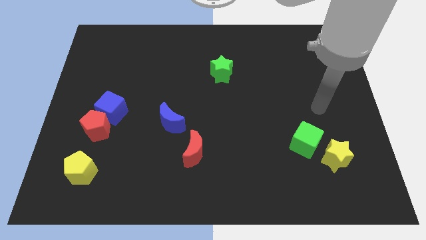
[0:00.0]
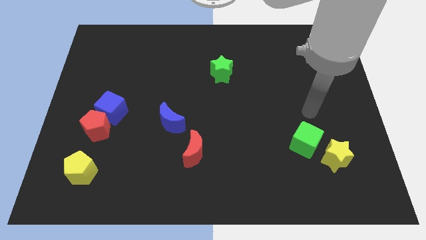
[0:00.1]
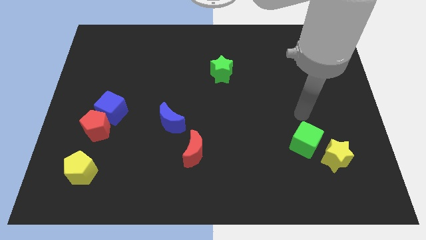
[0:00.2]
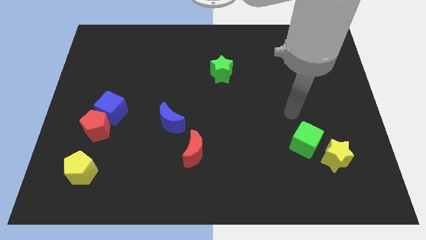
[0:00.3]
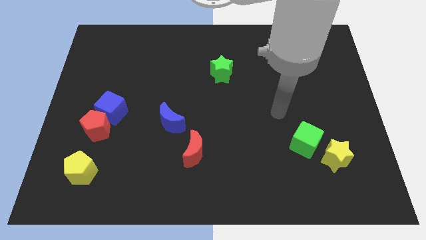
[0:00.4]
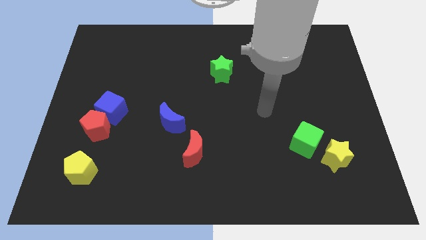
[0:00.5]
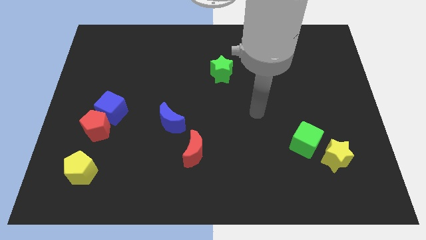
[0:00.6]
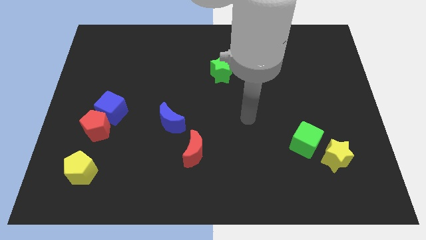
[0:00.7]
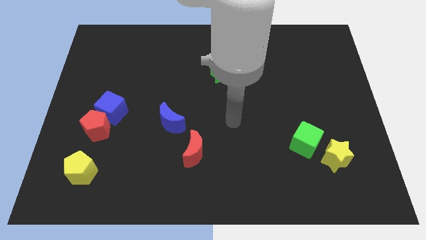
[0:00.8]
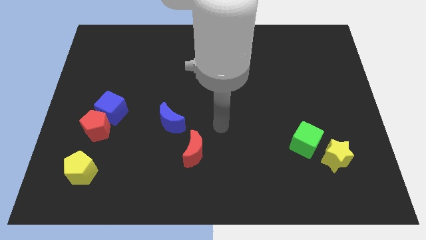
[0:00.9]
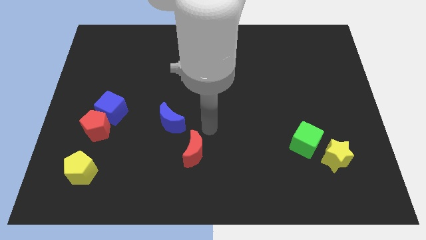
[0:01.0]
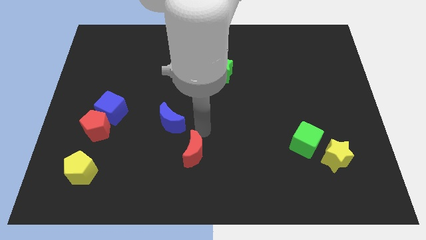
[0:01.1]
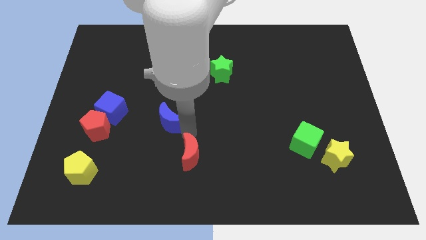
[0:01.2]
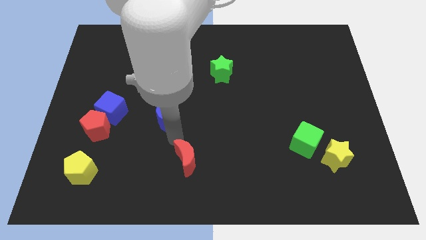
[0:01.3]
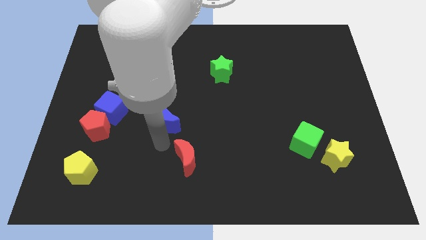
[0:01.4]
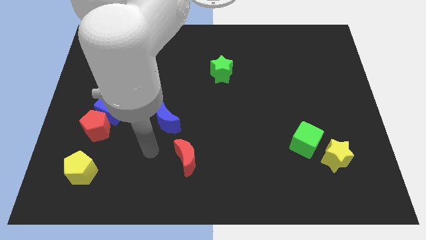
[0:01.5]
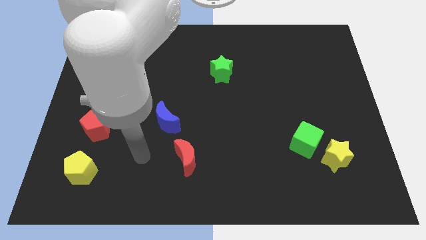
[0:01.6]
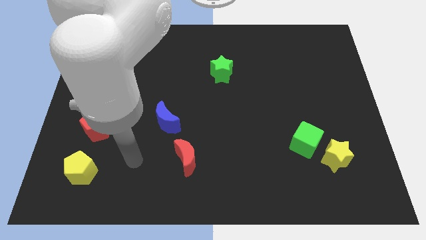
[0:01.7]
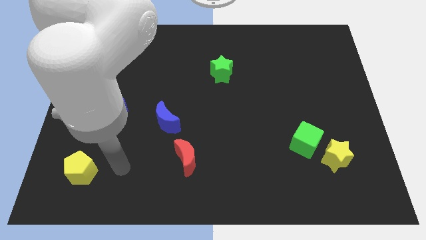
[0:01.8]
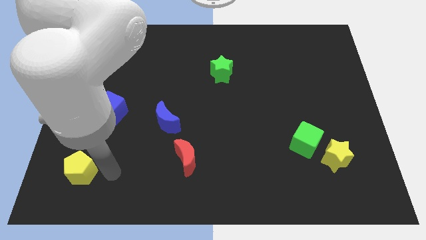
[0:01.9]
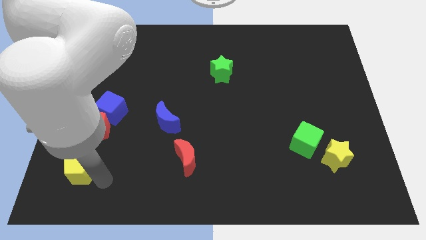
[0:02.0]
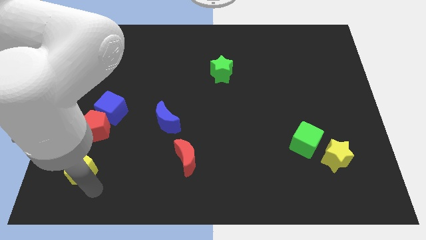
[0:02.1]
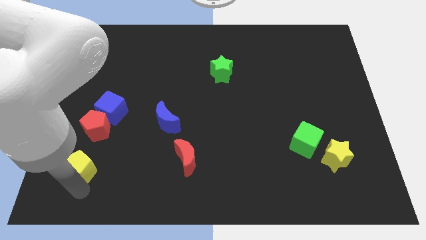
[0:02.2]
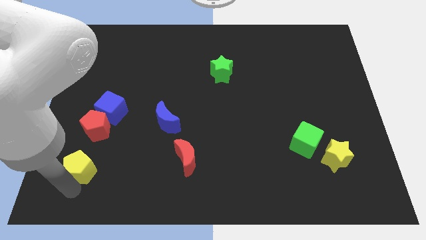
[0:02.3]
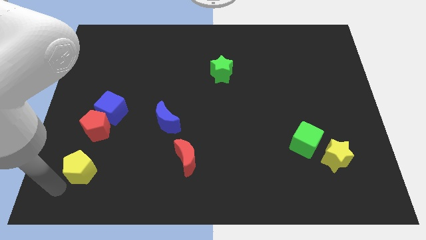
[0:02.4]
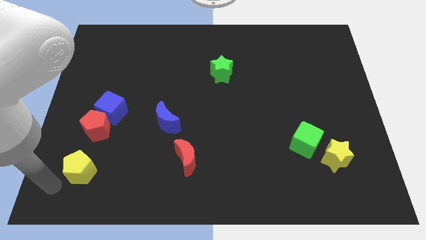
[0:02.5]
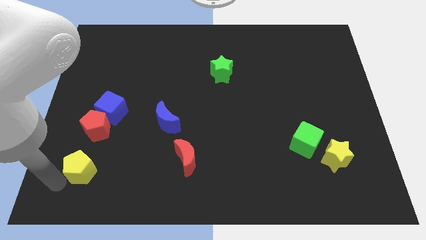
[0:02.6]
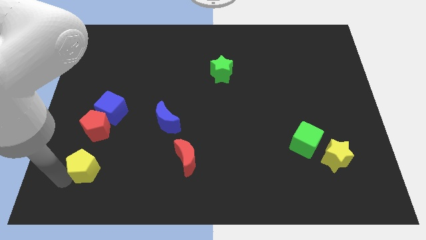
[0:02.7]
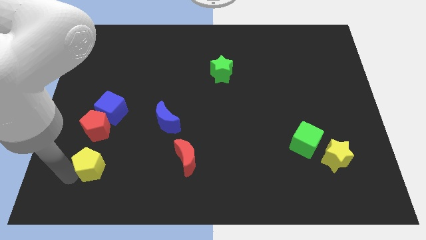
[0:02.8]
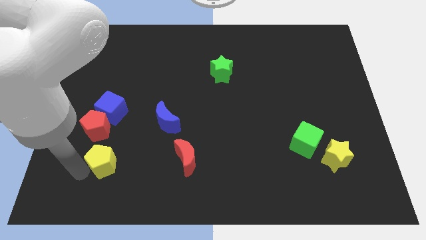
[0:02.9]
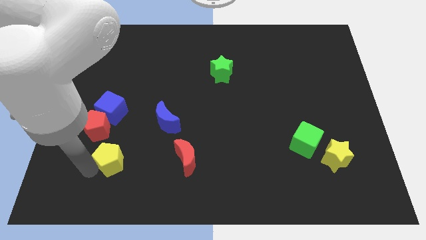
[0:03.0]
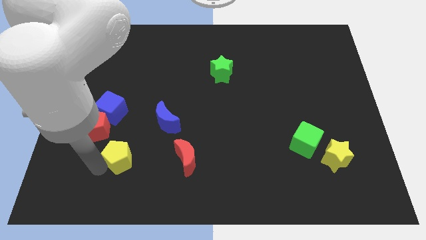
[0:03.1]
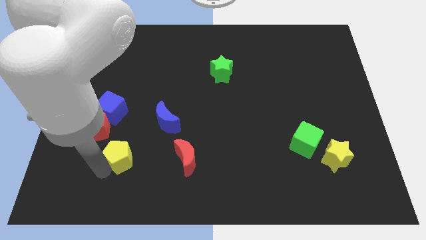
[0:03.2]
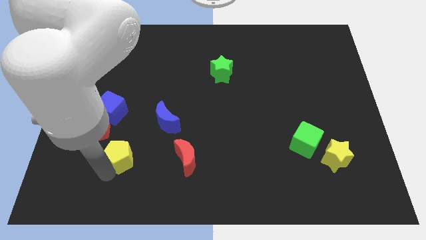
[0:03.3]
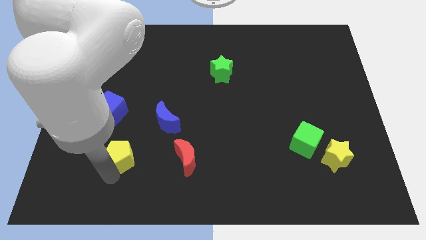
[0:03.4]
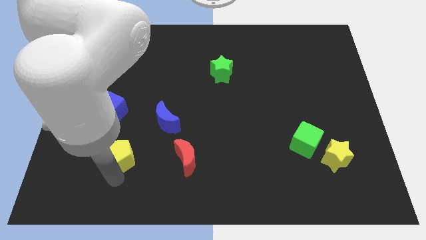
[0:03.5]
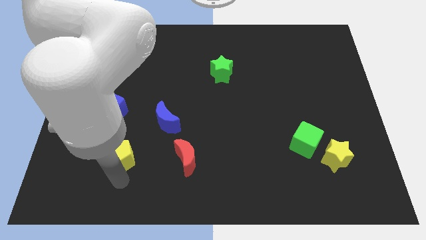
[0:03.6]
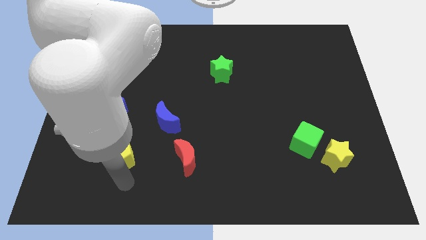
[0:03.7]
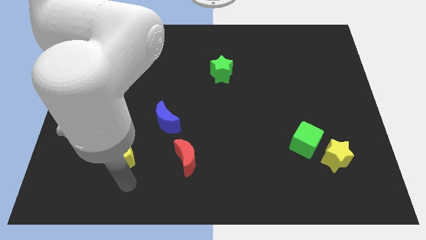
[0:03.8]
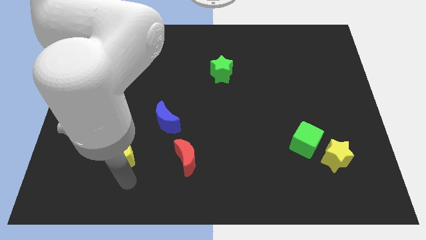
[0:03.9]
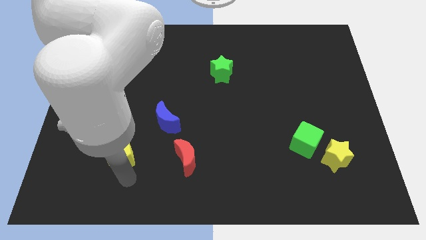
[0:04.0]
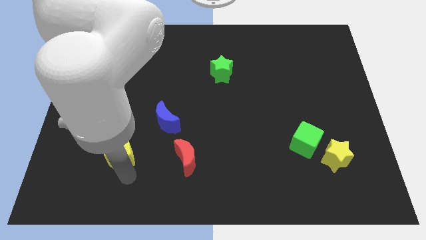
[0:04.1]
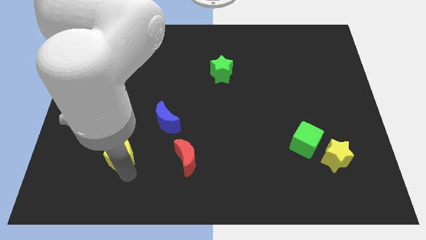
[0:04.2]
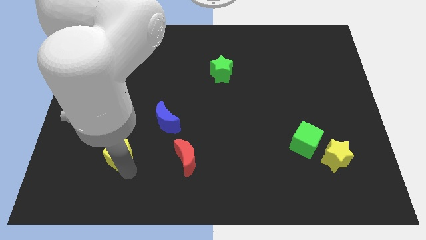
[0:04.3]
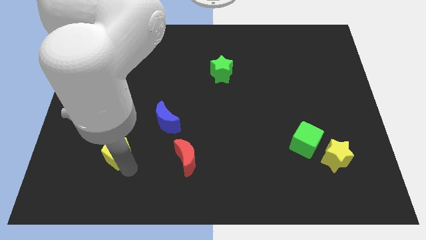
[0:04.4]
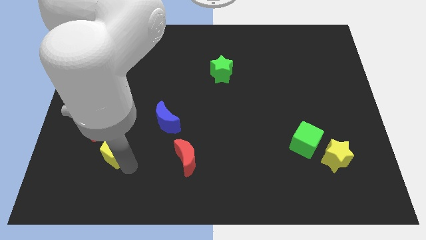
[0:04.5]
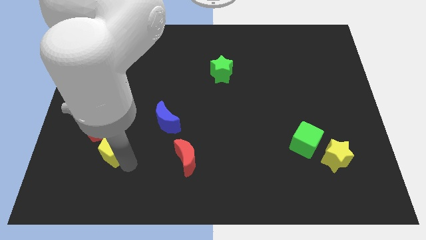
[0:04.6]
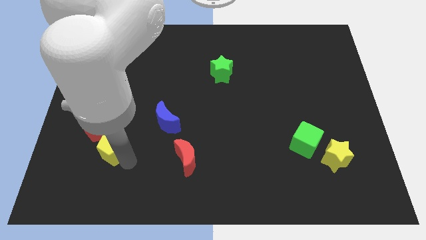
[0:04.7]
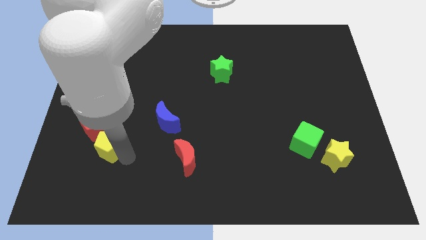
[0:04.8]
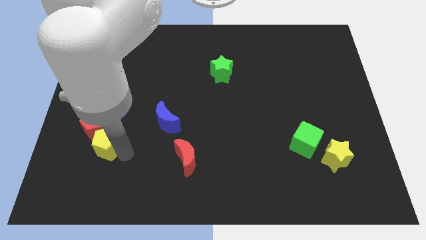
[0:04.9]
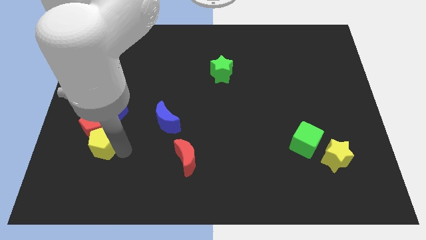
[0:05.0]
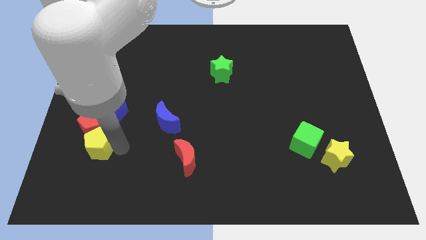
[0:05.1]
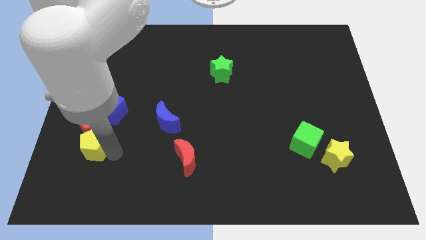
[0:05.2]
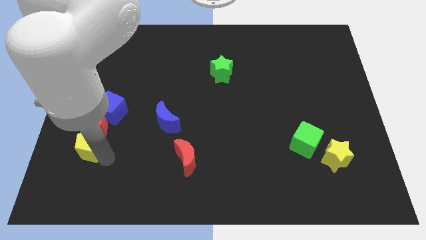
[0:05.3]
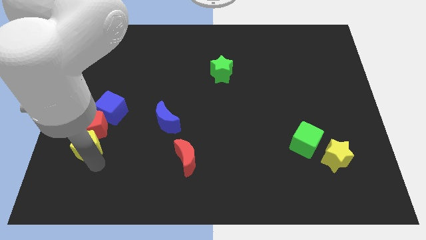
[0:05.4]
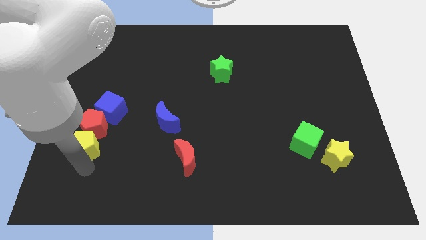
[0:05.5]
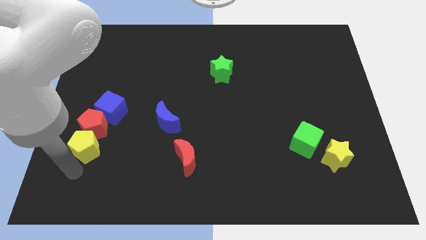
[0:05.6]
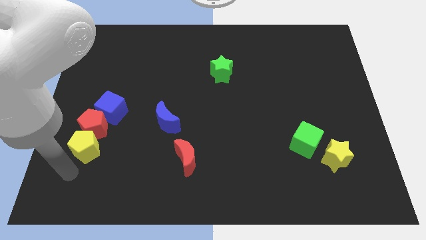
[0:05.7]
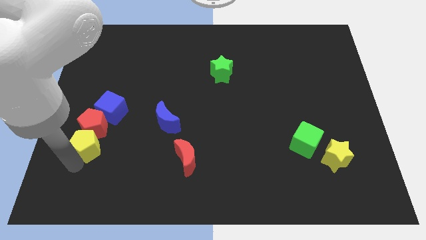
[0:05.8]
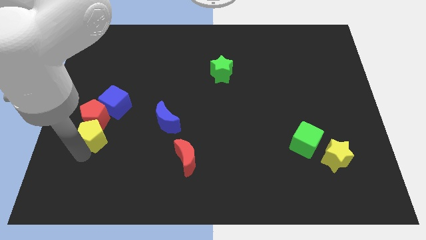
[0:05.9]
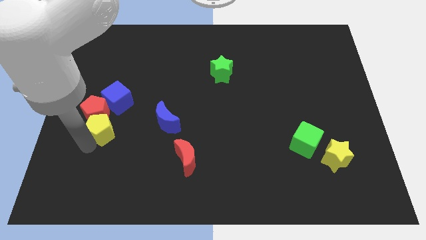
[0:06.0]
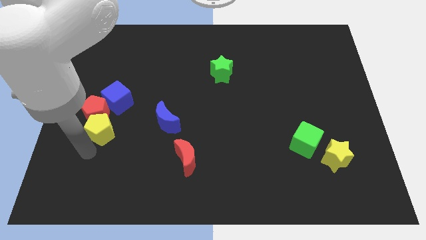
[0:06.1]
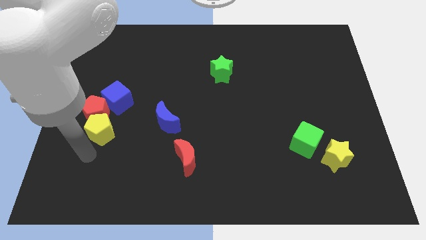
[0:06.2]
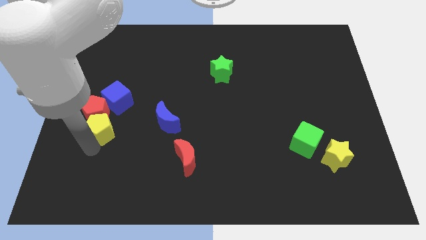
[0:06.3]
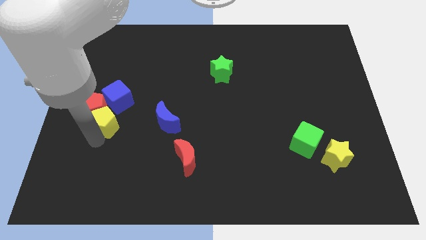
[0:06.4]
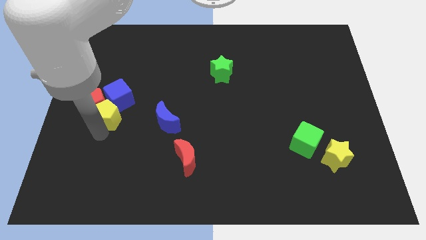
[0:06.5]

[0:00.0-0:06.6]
slide the yellow pentagon towards the blue cube

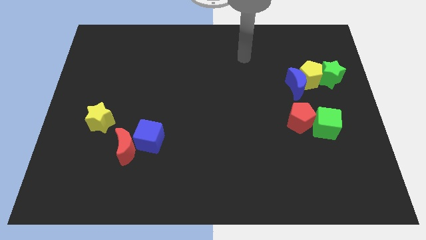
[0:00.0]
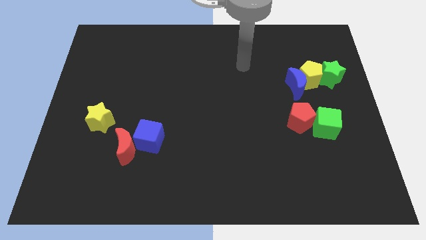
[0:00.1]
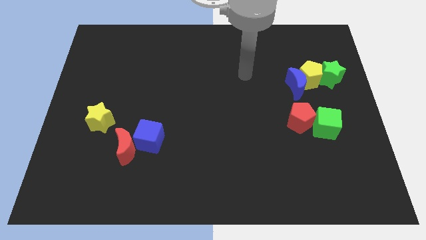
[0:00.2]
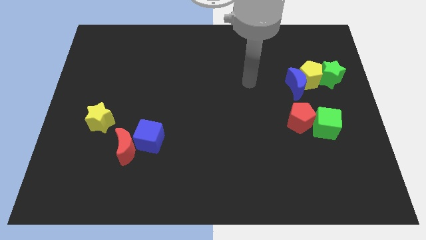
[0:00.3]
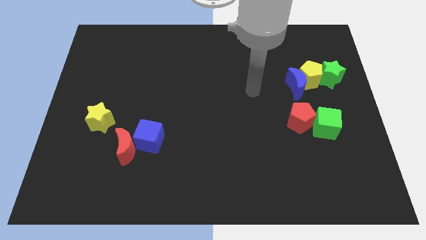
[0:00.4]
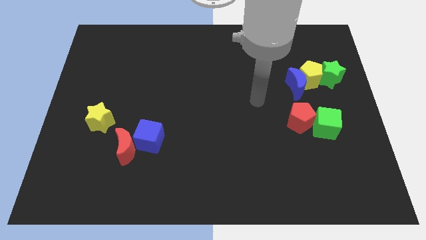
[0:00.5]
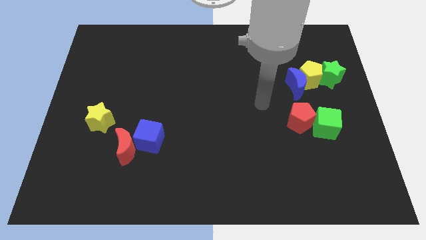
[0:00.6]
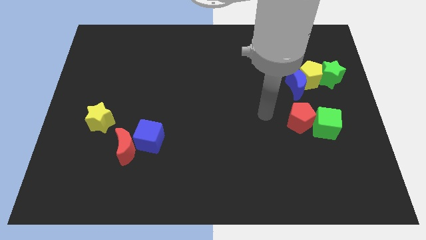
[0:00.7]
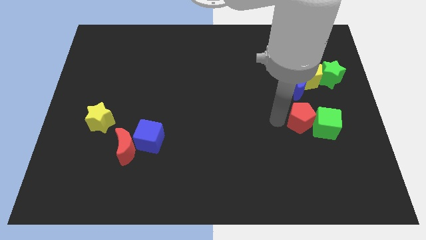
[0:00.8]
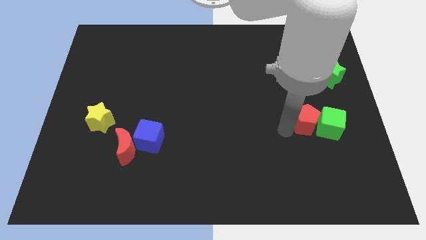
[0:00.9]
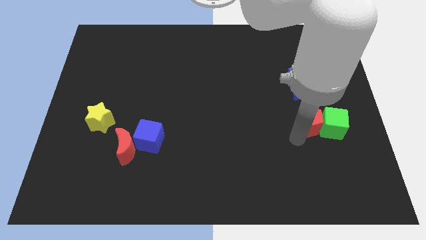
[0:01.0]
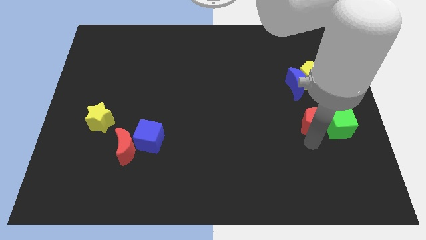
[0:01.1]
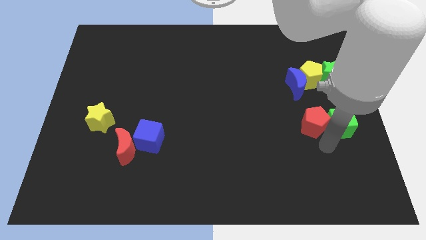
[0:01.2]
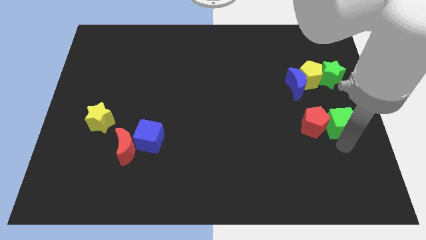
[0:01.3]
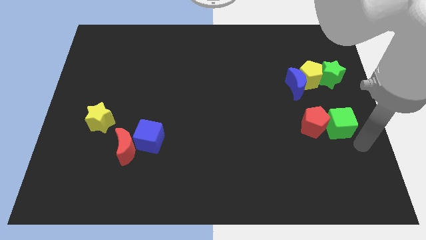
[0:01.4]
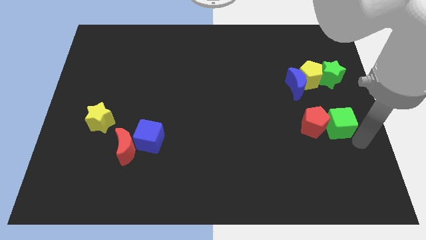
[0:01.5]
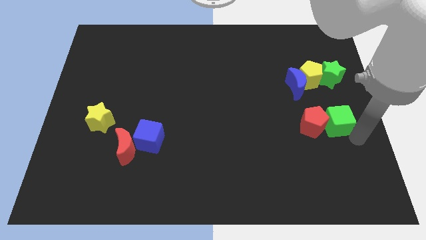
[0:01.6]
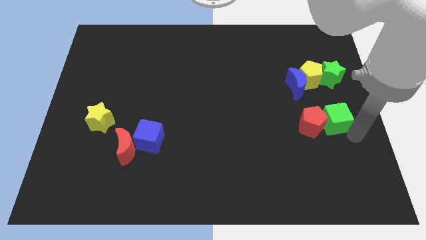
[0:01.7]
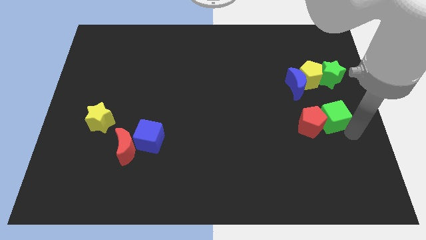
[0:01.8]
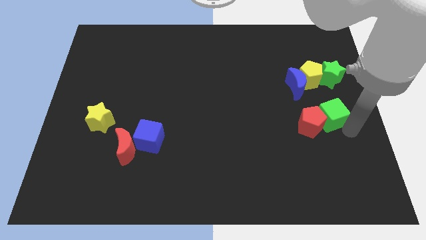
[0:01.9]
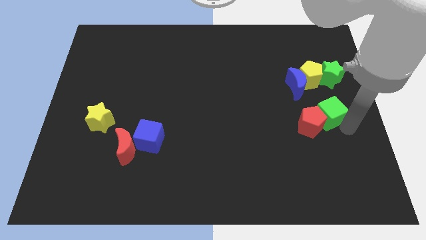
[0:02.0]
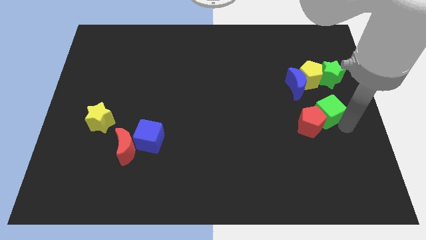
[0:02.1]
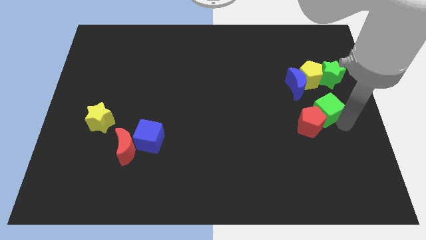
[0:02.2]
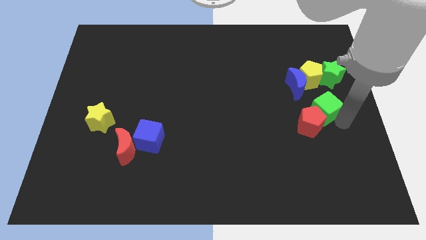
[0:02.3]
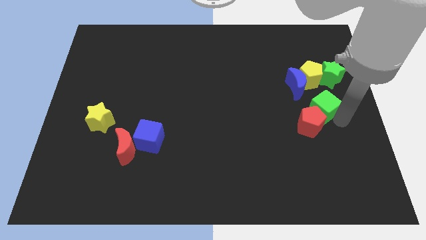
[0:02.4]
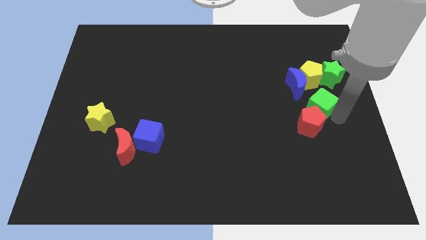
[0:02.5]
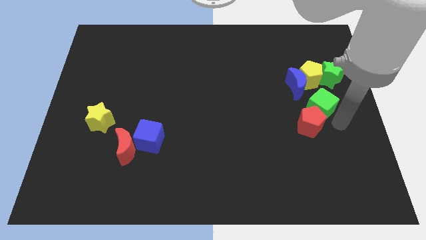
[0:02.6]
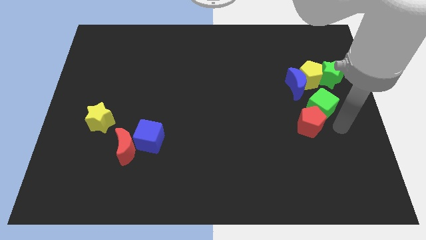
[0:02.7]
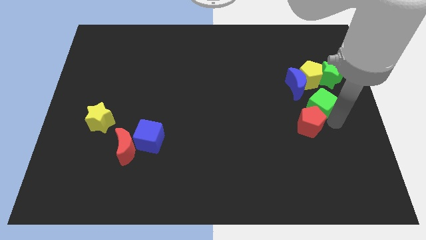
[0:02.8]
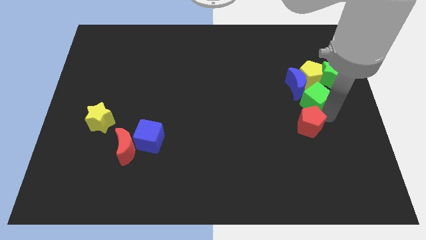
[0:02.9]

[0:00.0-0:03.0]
slide the green cube to the blue moon
